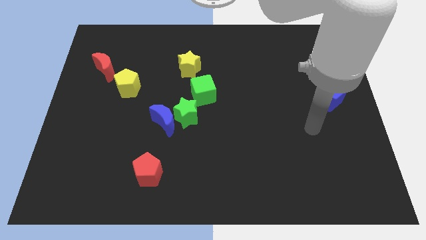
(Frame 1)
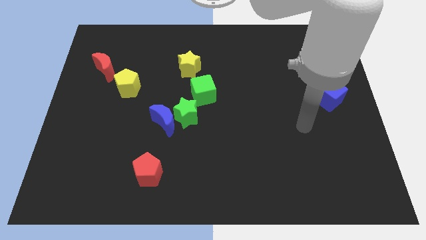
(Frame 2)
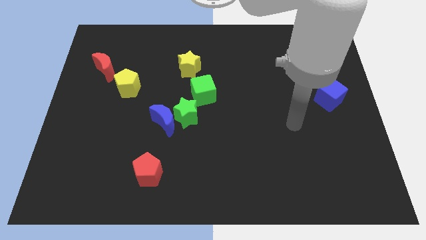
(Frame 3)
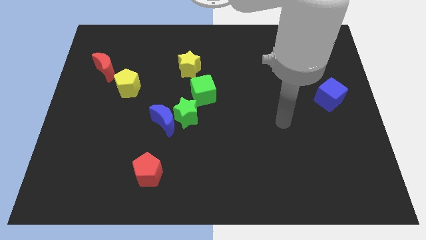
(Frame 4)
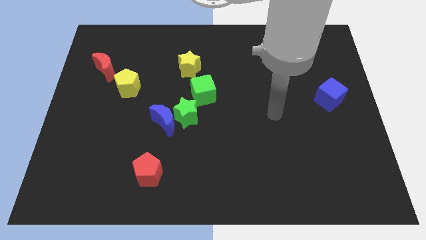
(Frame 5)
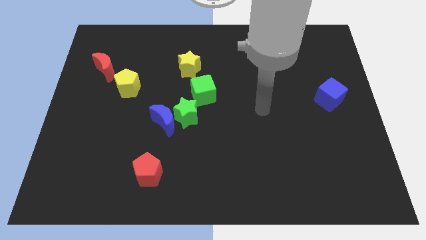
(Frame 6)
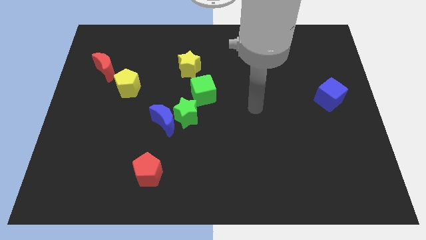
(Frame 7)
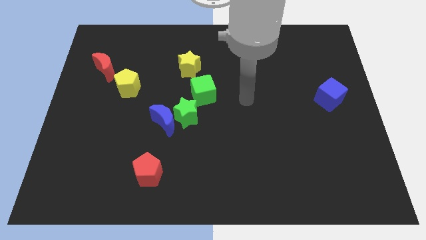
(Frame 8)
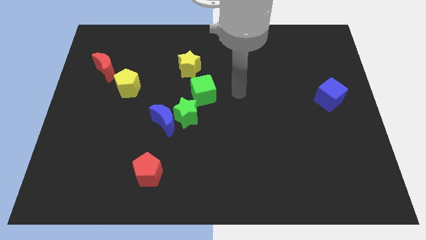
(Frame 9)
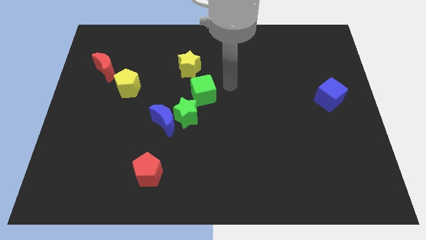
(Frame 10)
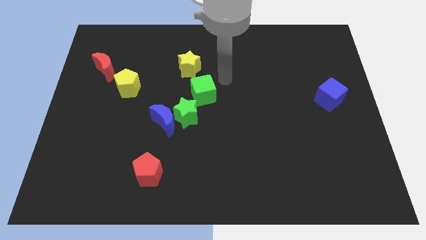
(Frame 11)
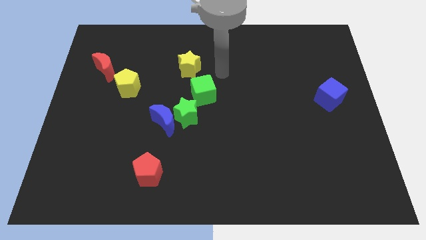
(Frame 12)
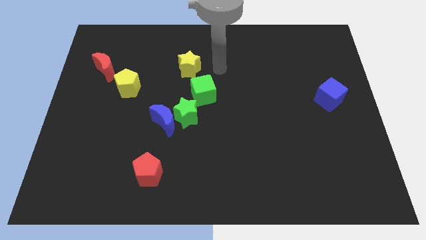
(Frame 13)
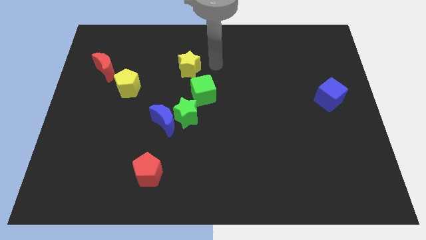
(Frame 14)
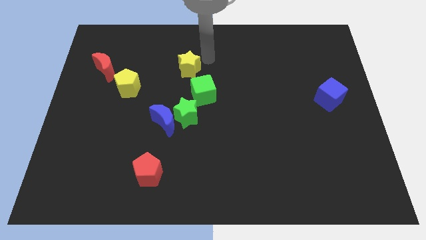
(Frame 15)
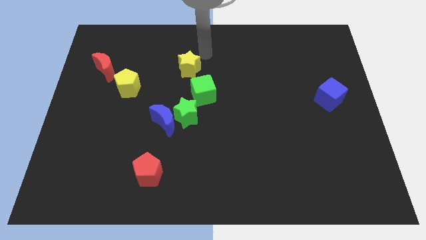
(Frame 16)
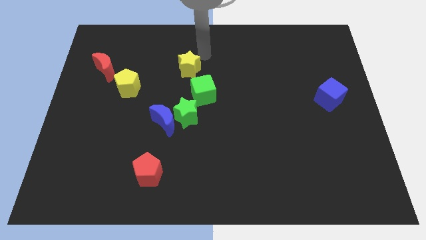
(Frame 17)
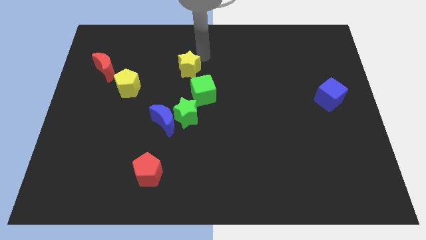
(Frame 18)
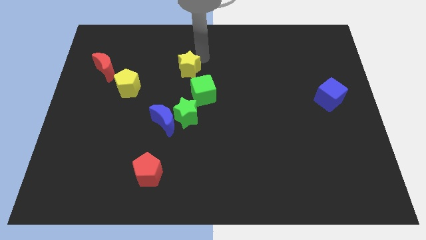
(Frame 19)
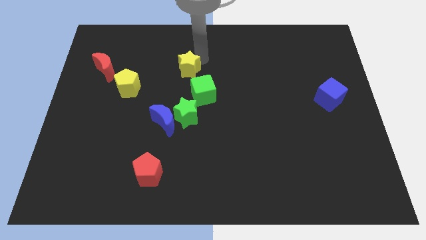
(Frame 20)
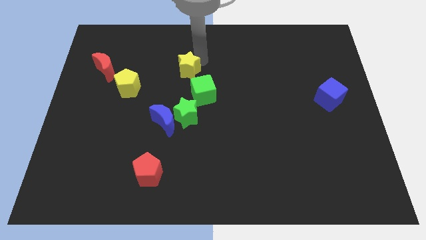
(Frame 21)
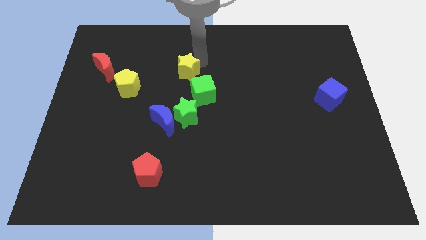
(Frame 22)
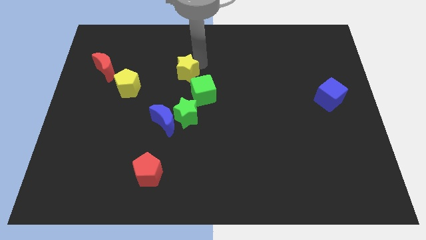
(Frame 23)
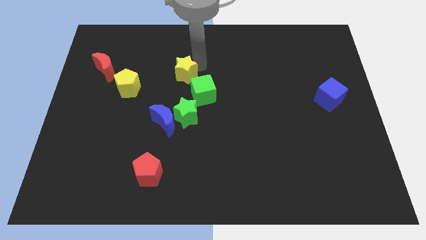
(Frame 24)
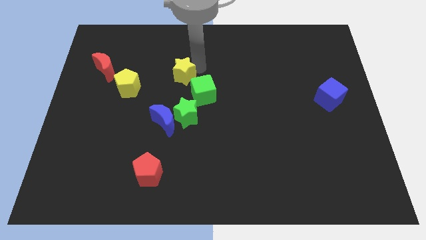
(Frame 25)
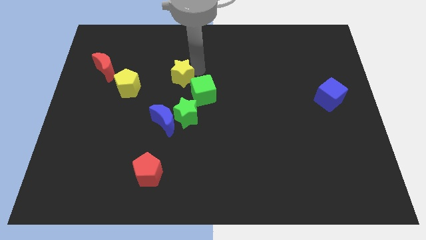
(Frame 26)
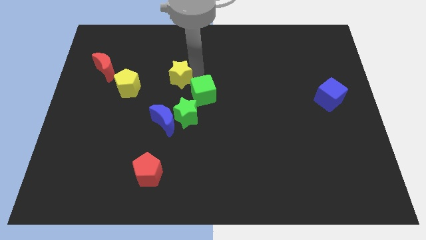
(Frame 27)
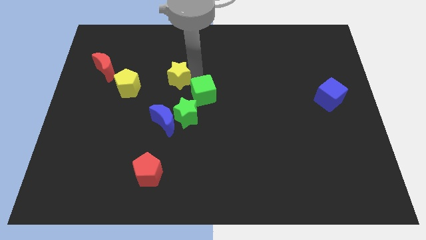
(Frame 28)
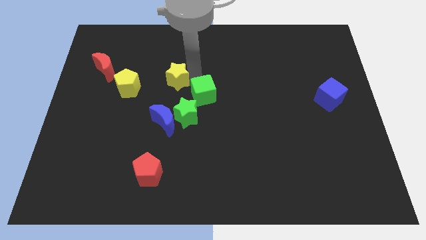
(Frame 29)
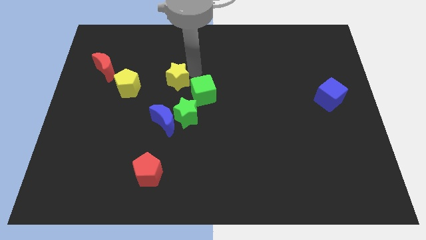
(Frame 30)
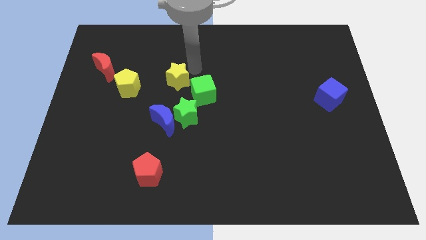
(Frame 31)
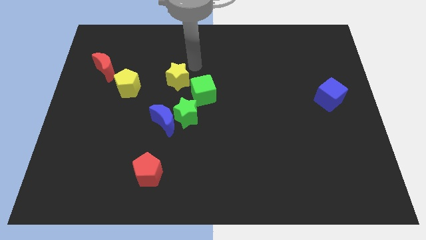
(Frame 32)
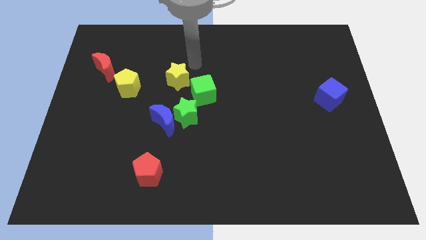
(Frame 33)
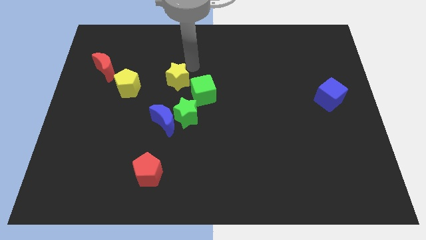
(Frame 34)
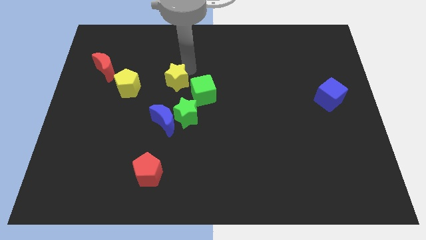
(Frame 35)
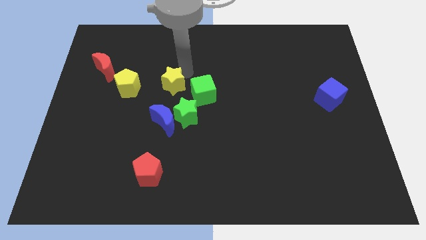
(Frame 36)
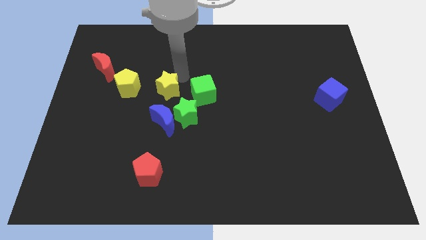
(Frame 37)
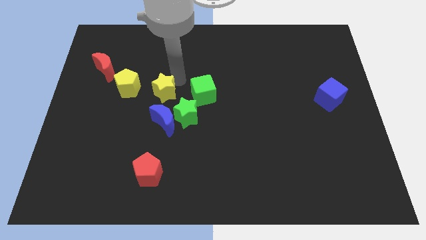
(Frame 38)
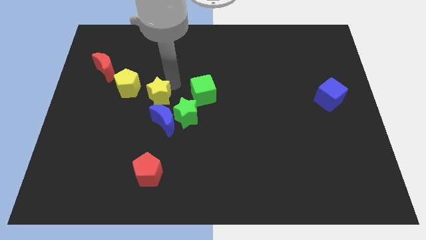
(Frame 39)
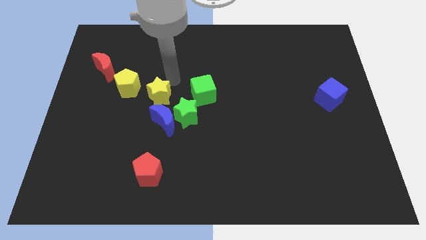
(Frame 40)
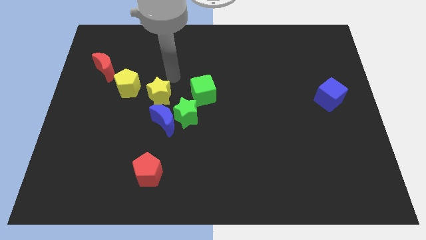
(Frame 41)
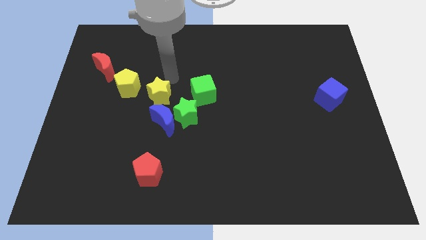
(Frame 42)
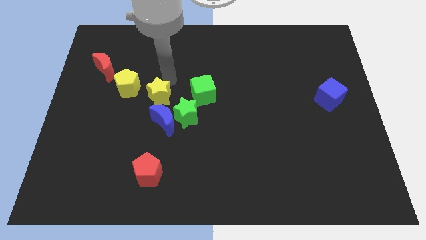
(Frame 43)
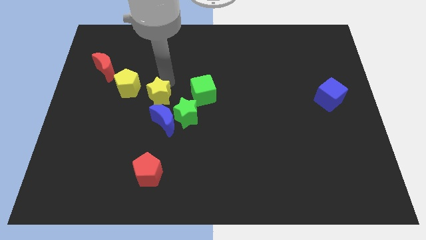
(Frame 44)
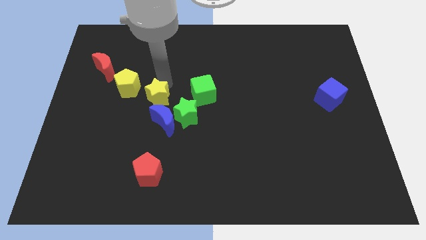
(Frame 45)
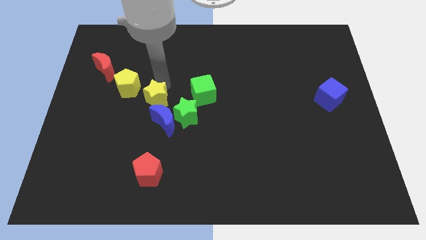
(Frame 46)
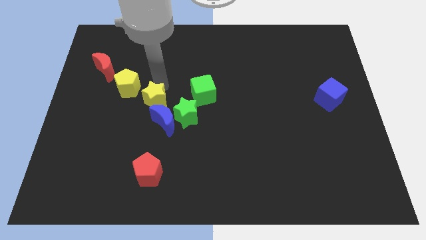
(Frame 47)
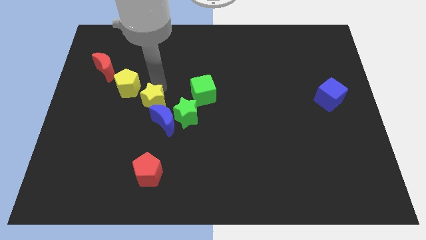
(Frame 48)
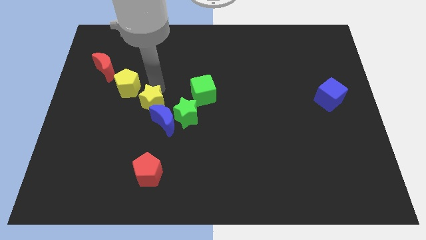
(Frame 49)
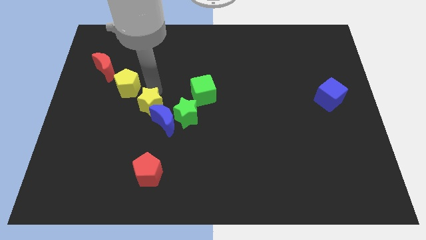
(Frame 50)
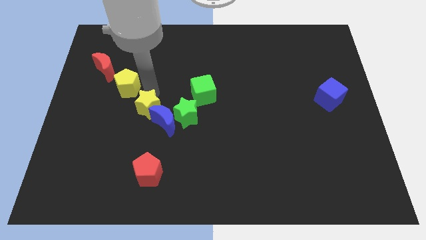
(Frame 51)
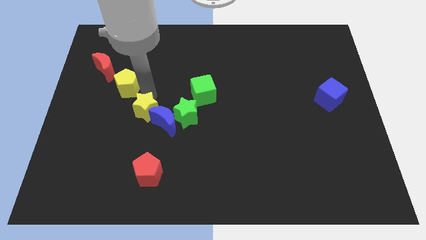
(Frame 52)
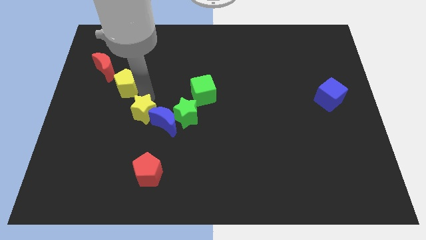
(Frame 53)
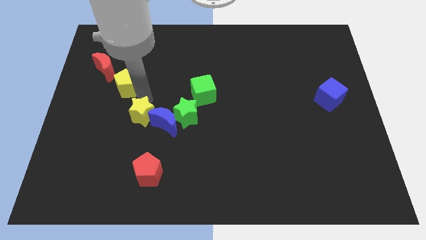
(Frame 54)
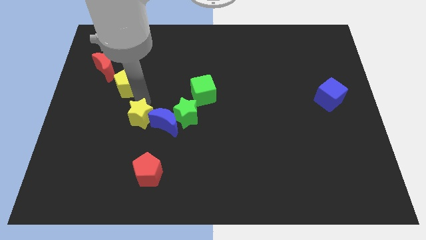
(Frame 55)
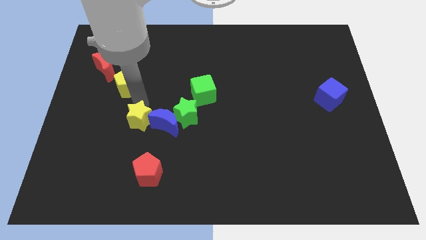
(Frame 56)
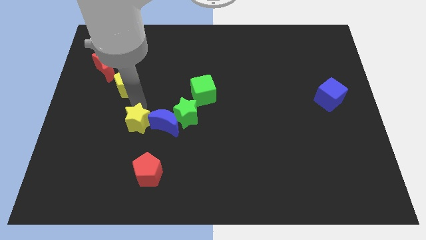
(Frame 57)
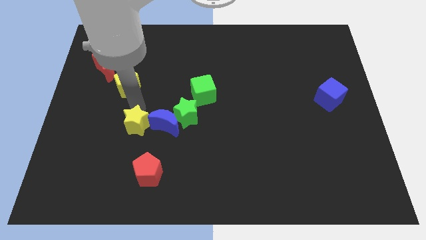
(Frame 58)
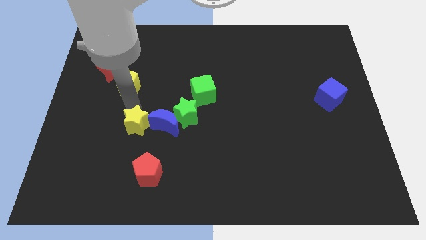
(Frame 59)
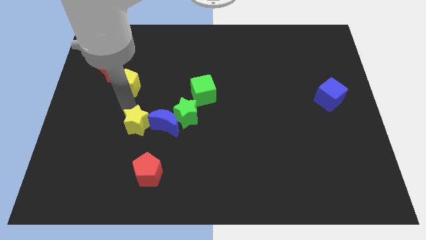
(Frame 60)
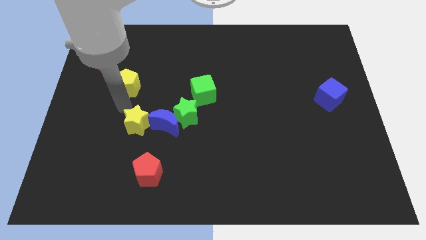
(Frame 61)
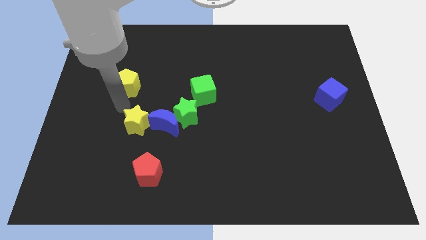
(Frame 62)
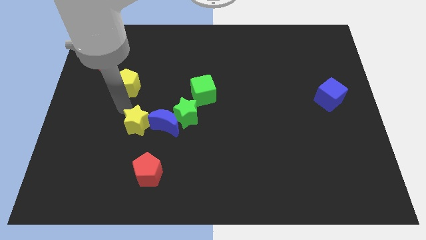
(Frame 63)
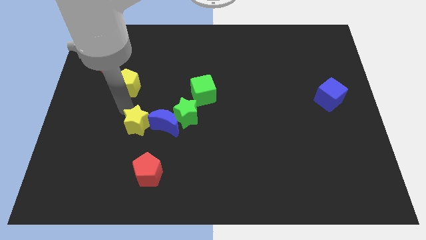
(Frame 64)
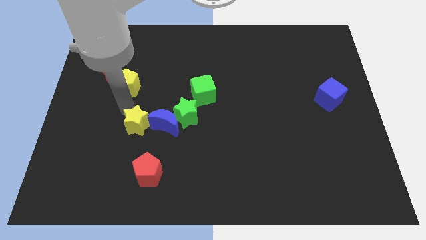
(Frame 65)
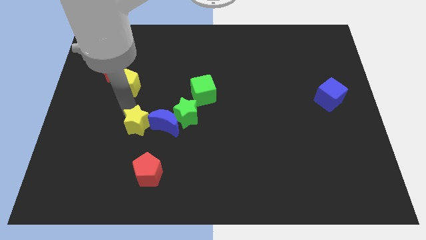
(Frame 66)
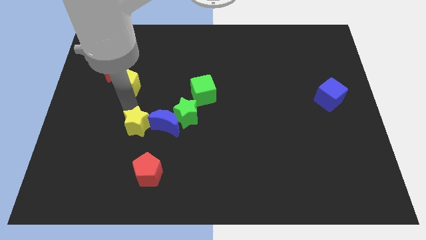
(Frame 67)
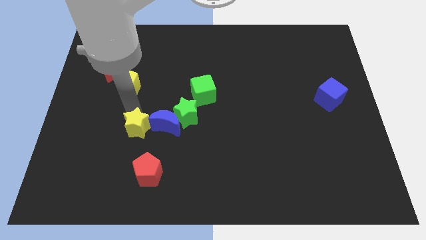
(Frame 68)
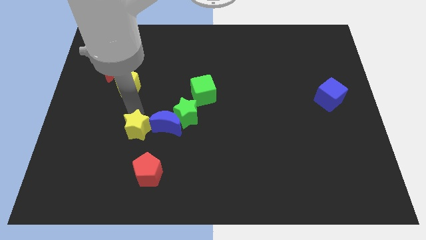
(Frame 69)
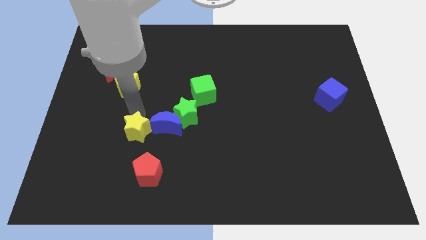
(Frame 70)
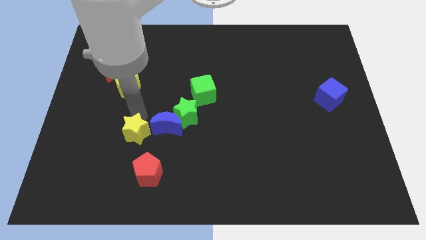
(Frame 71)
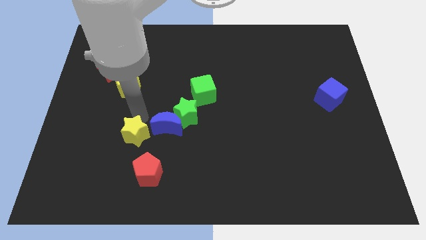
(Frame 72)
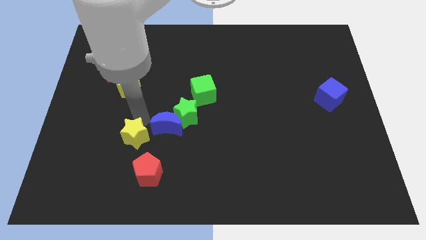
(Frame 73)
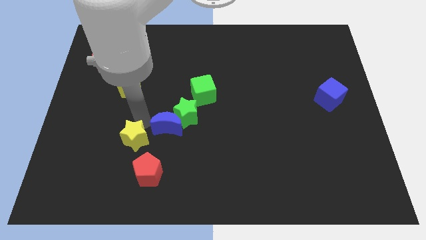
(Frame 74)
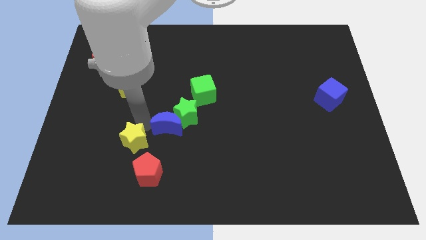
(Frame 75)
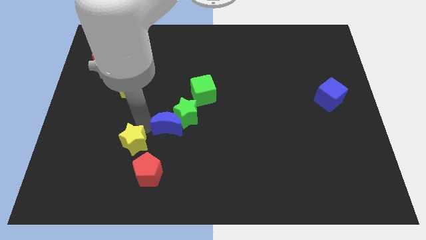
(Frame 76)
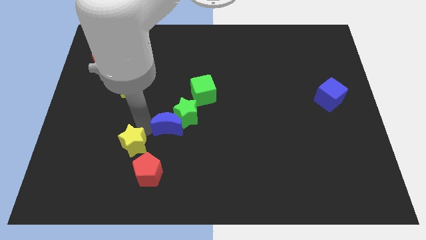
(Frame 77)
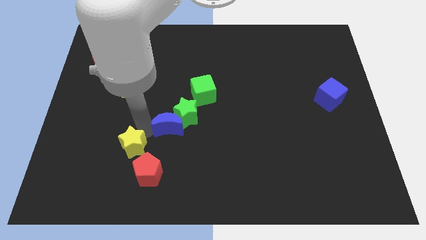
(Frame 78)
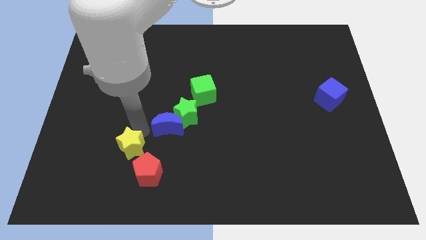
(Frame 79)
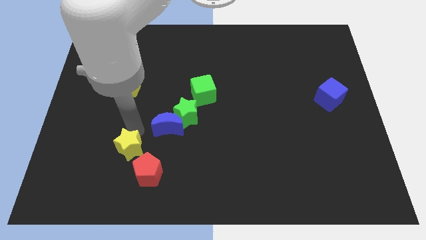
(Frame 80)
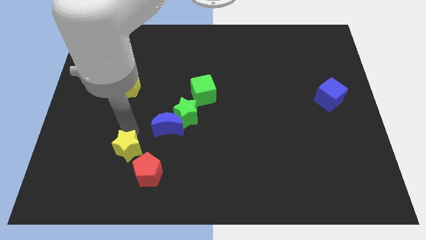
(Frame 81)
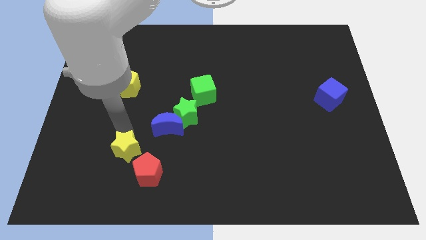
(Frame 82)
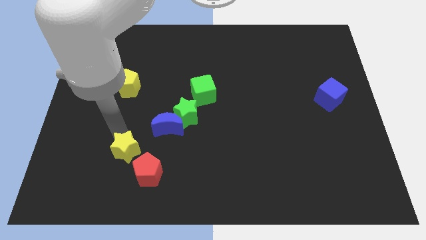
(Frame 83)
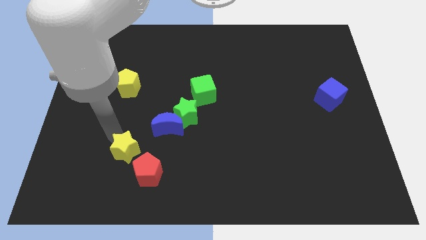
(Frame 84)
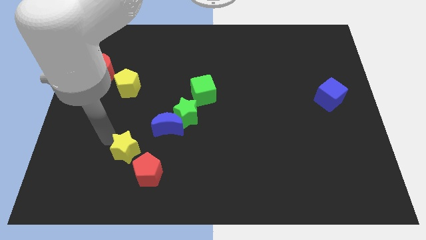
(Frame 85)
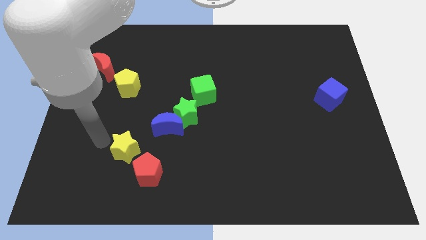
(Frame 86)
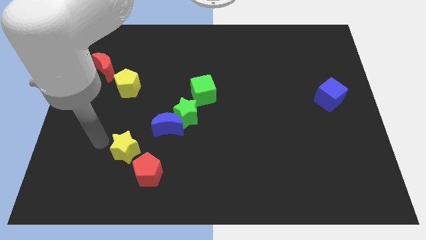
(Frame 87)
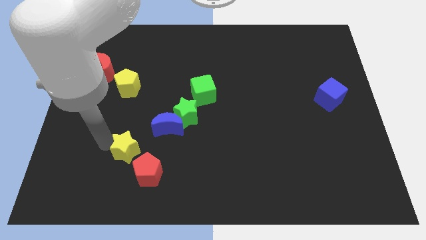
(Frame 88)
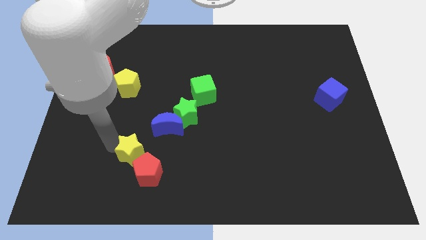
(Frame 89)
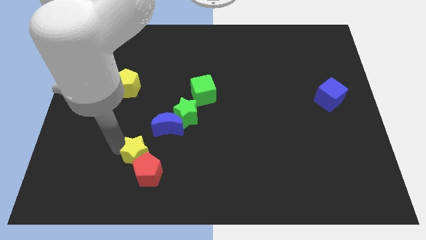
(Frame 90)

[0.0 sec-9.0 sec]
move the yellow star close to the red pentagon
